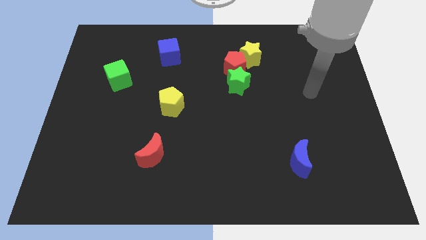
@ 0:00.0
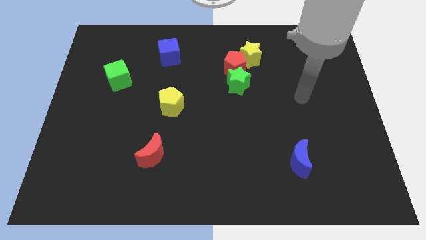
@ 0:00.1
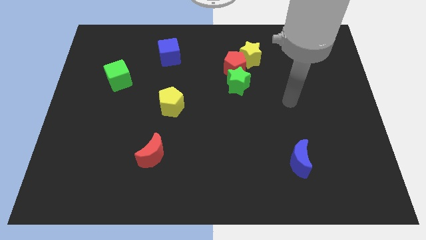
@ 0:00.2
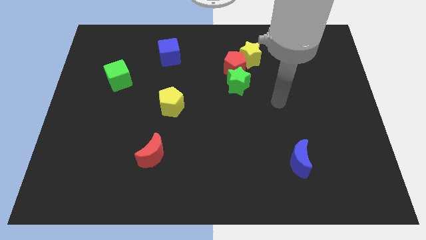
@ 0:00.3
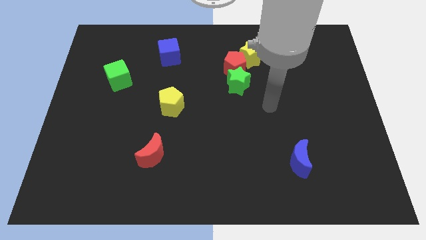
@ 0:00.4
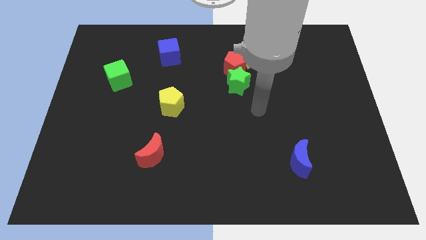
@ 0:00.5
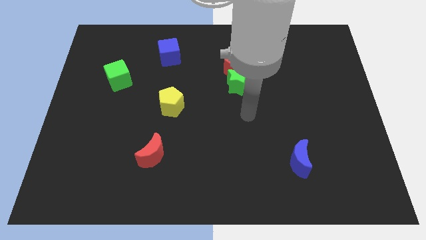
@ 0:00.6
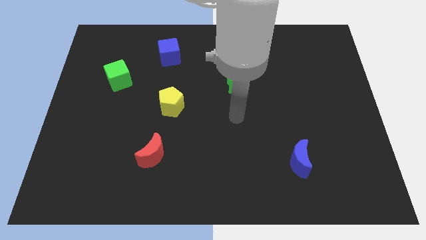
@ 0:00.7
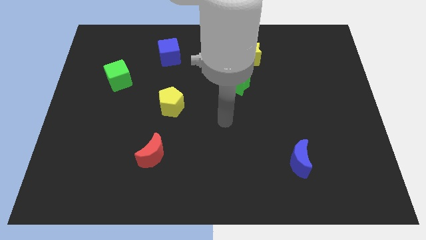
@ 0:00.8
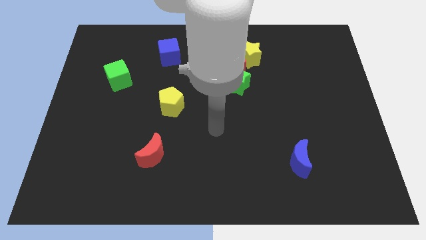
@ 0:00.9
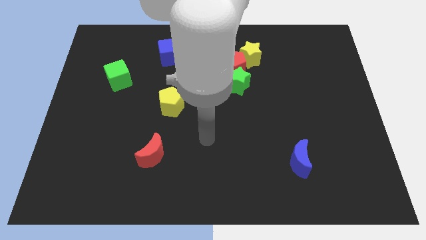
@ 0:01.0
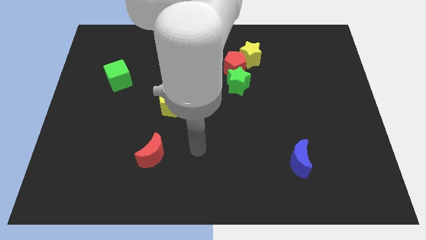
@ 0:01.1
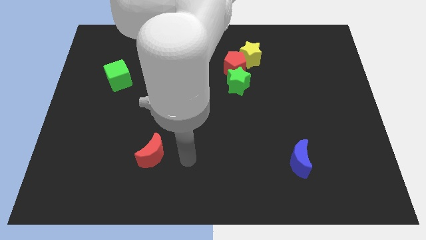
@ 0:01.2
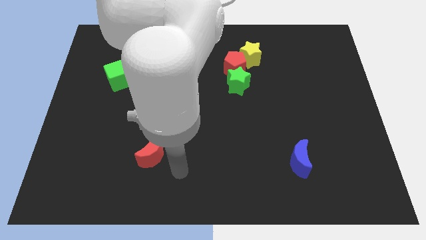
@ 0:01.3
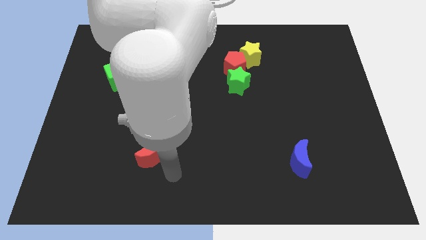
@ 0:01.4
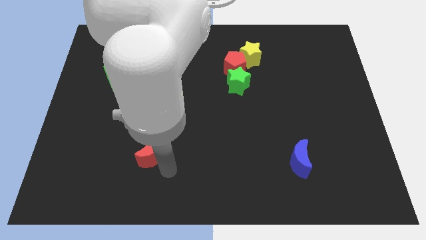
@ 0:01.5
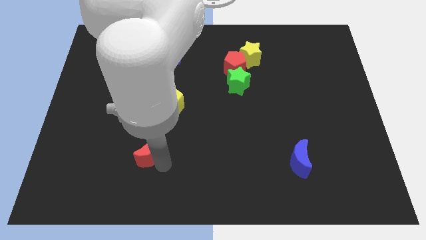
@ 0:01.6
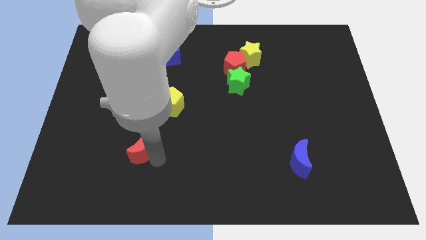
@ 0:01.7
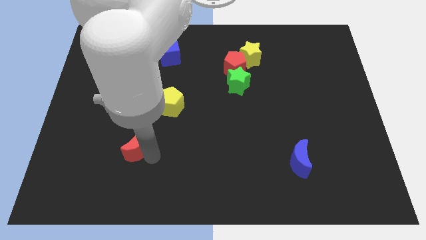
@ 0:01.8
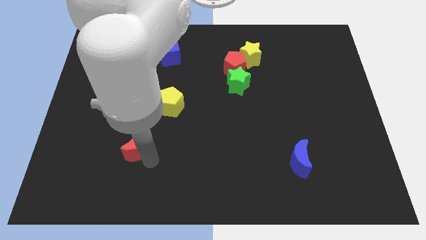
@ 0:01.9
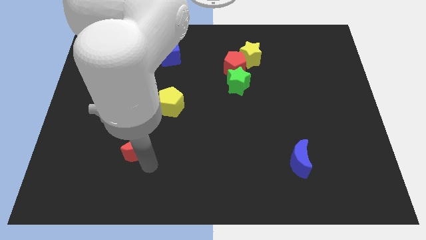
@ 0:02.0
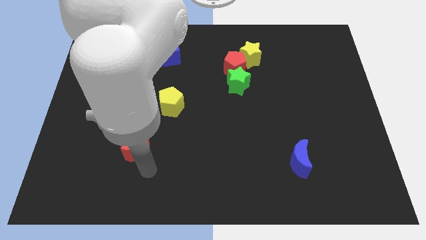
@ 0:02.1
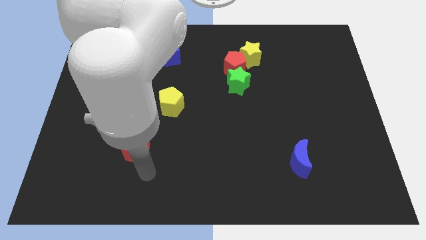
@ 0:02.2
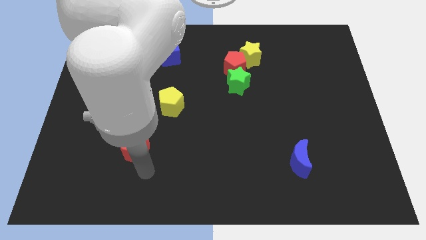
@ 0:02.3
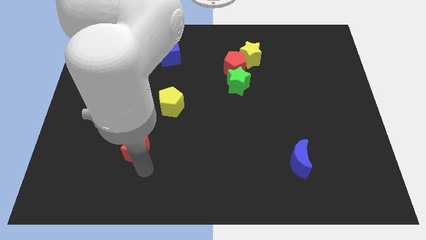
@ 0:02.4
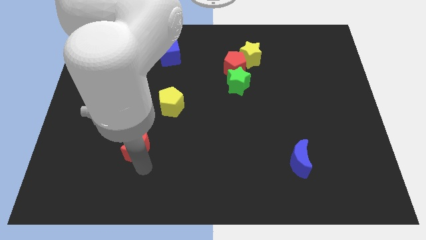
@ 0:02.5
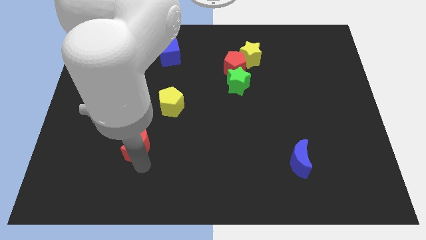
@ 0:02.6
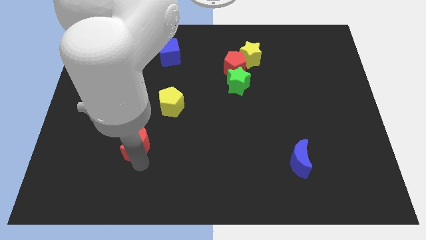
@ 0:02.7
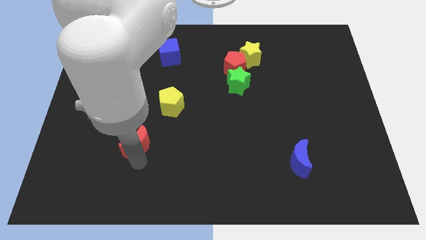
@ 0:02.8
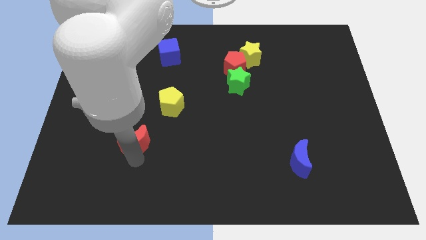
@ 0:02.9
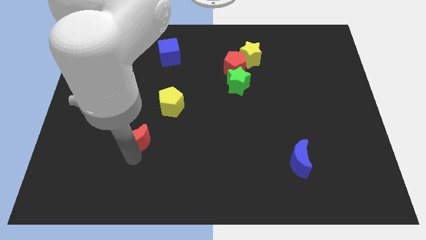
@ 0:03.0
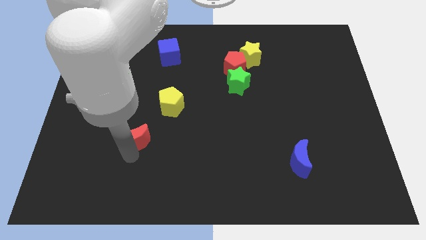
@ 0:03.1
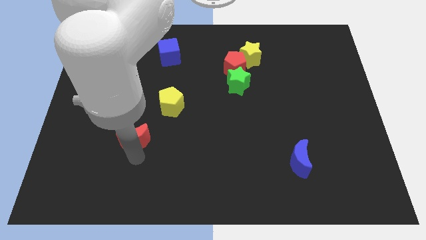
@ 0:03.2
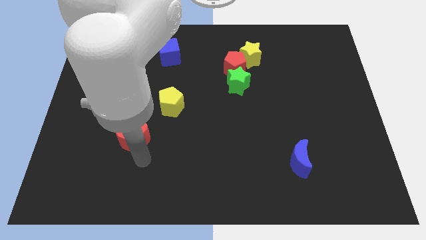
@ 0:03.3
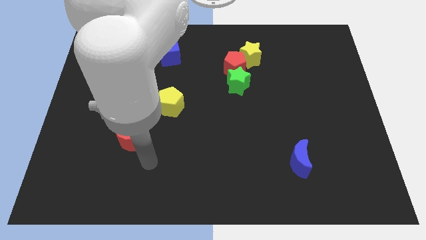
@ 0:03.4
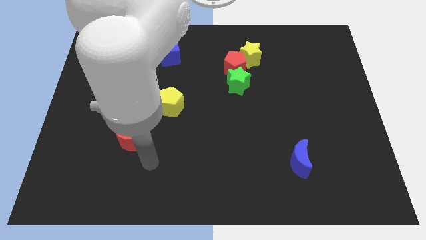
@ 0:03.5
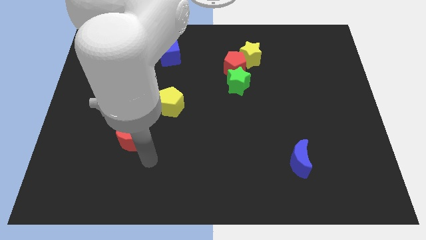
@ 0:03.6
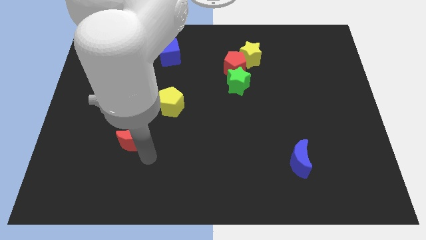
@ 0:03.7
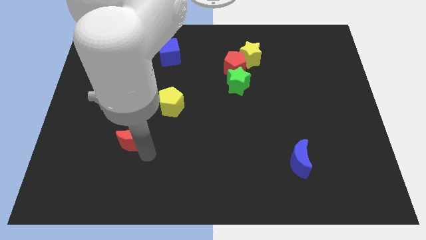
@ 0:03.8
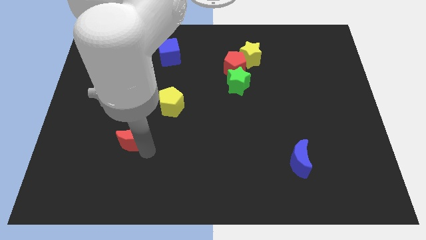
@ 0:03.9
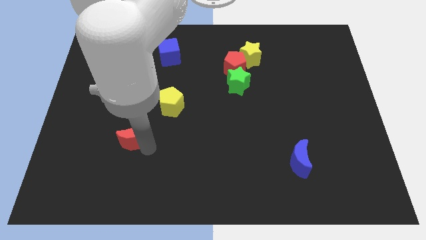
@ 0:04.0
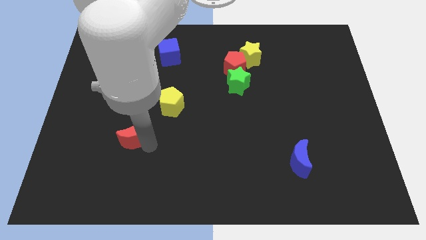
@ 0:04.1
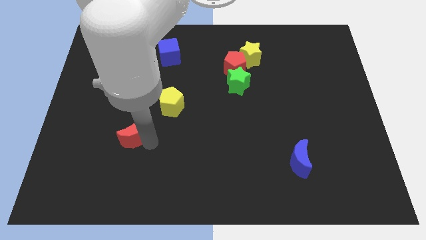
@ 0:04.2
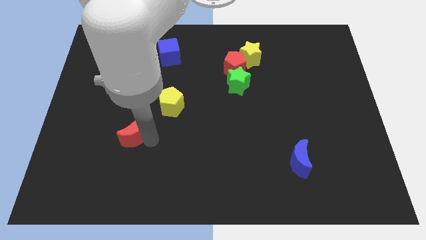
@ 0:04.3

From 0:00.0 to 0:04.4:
slide the red moon diagonally up and to the left a little

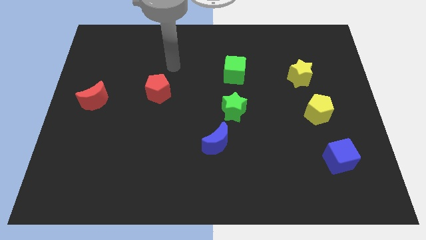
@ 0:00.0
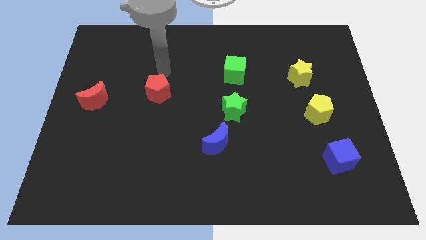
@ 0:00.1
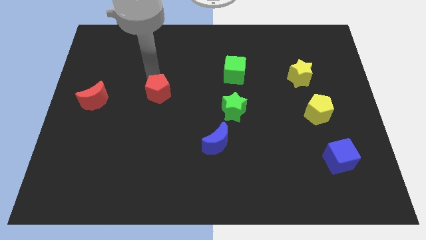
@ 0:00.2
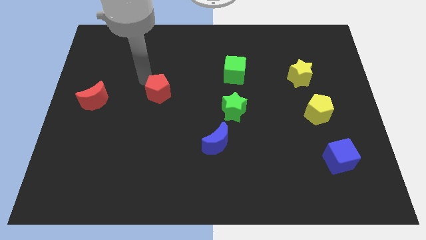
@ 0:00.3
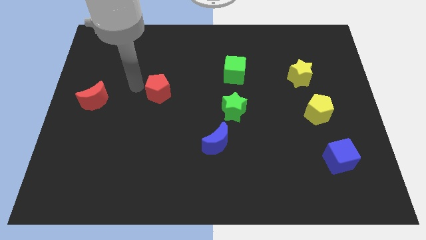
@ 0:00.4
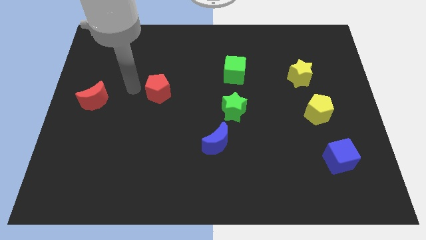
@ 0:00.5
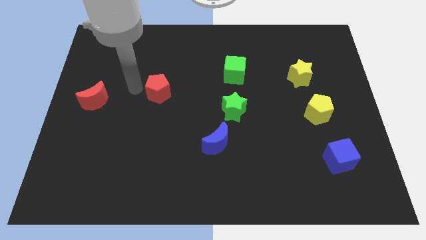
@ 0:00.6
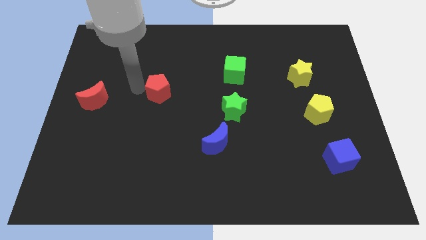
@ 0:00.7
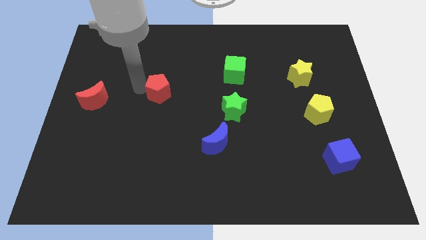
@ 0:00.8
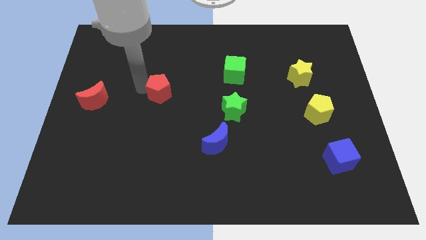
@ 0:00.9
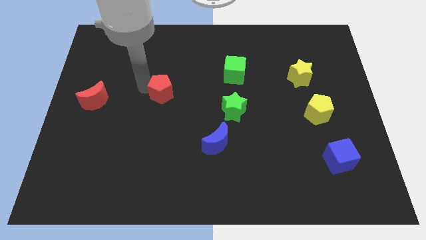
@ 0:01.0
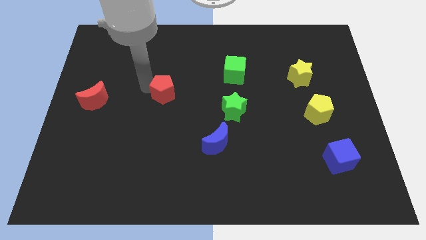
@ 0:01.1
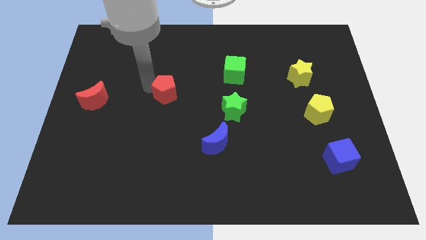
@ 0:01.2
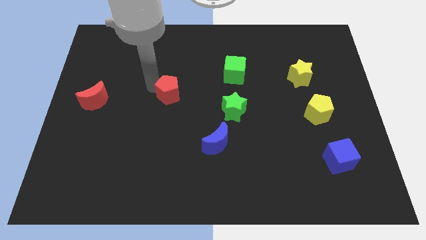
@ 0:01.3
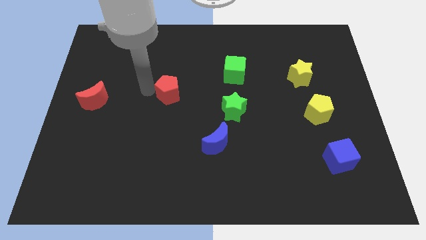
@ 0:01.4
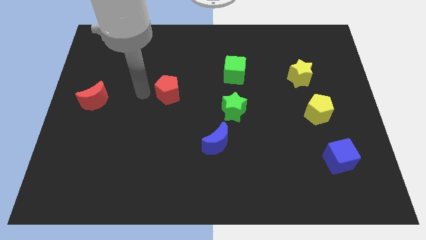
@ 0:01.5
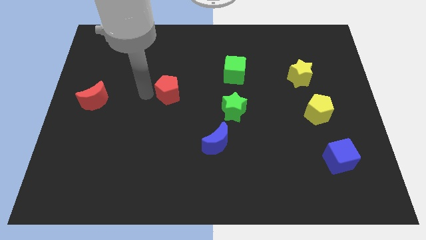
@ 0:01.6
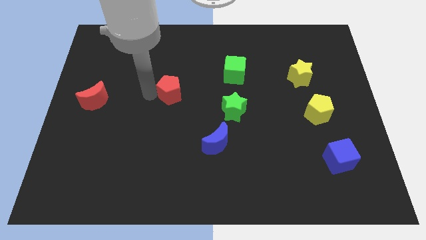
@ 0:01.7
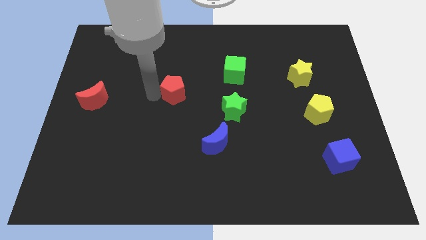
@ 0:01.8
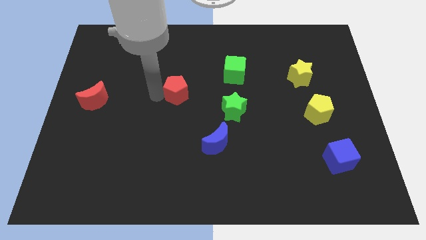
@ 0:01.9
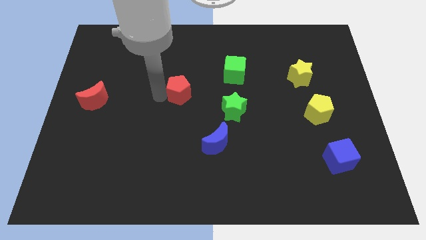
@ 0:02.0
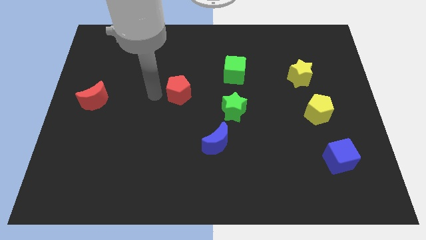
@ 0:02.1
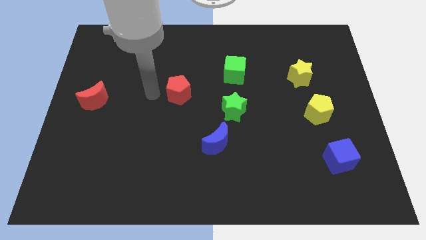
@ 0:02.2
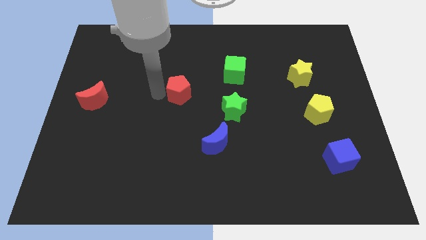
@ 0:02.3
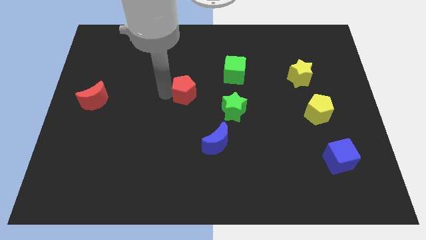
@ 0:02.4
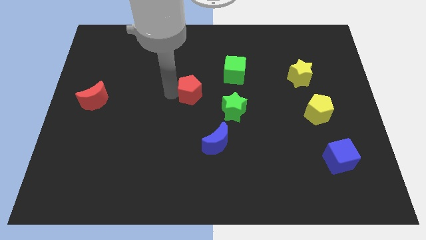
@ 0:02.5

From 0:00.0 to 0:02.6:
push the red pentagon a little right

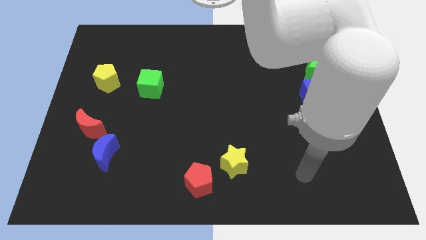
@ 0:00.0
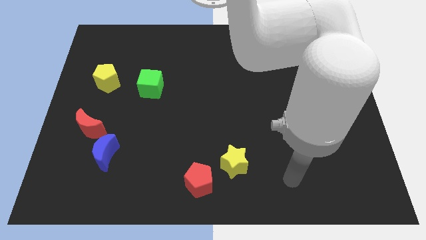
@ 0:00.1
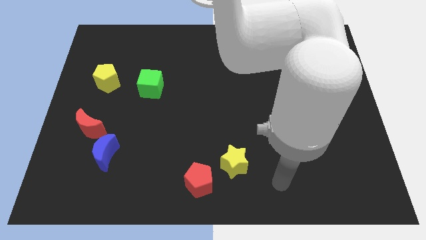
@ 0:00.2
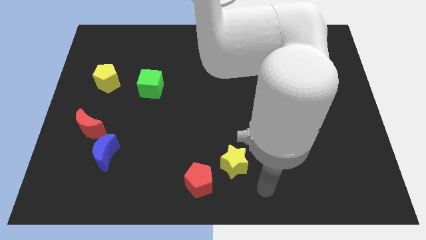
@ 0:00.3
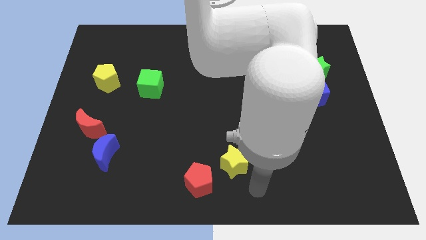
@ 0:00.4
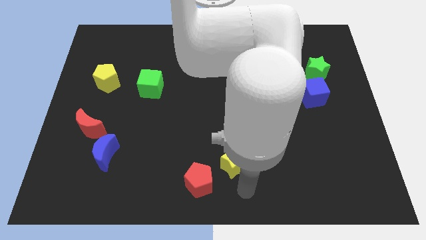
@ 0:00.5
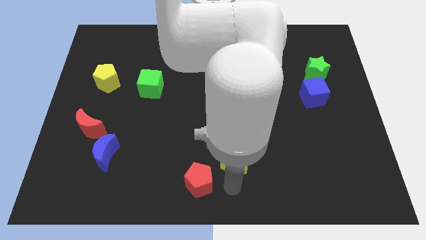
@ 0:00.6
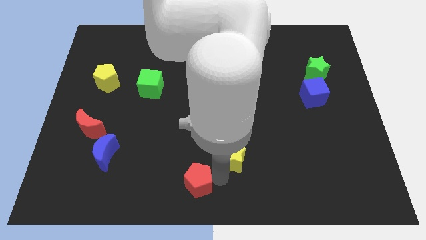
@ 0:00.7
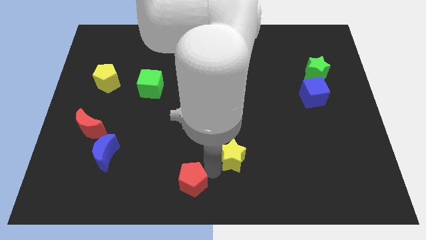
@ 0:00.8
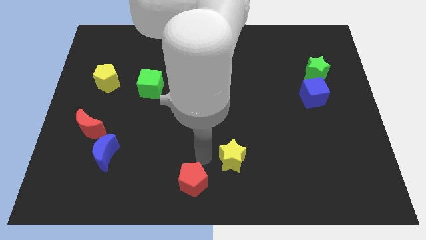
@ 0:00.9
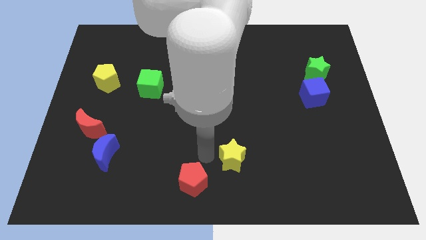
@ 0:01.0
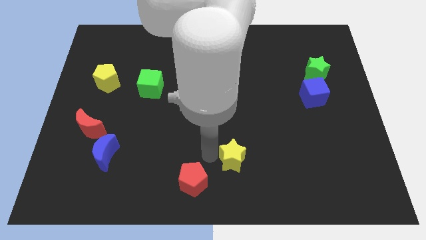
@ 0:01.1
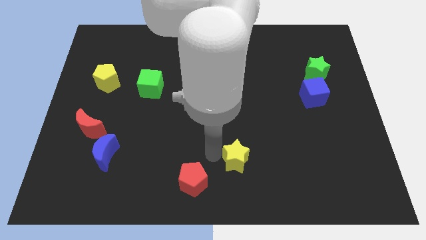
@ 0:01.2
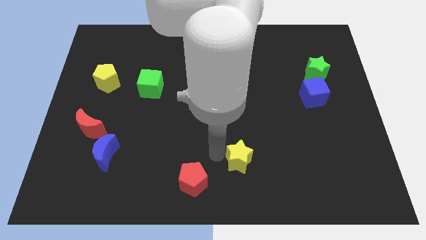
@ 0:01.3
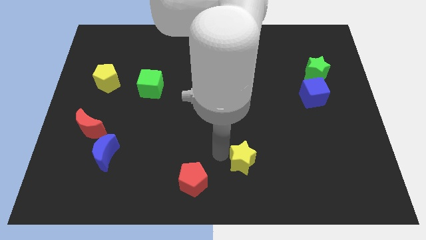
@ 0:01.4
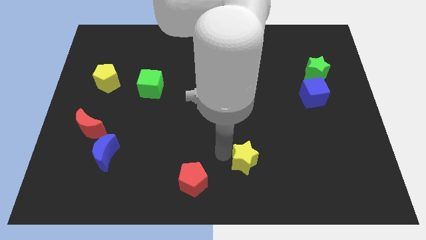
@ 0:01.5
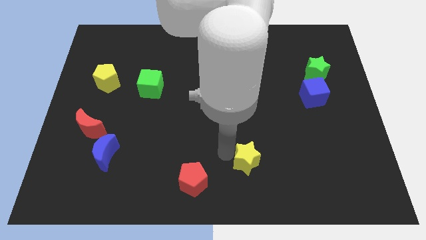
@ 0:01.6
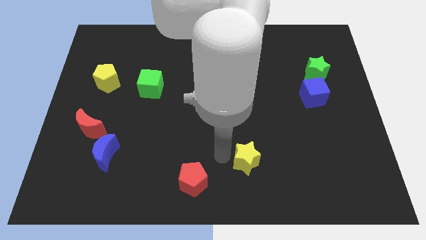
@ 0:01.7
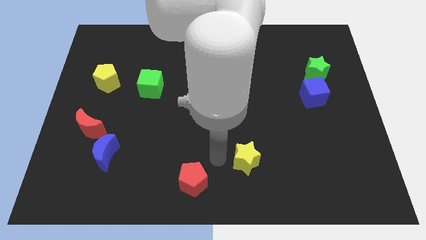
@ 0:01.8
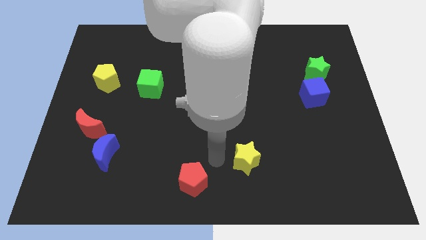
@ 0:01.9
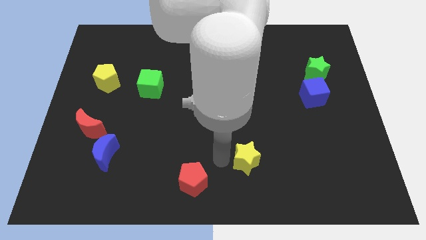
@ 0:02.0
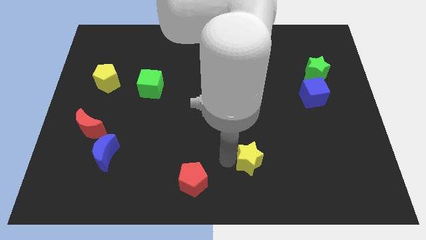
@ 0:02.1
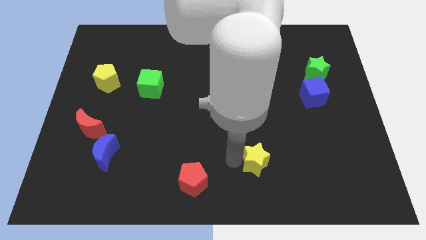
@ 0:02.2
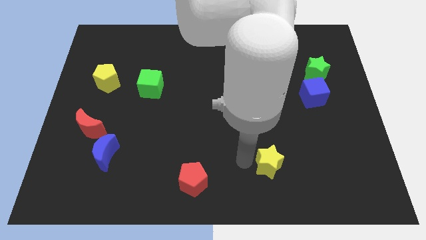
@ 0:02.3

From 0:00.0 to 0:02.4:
push the yellow star a bit to the right
